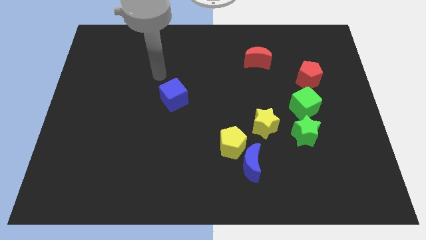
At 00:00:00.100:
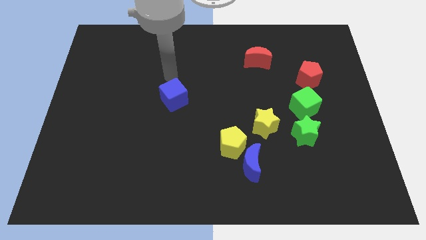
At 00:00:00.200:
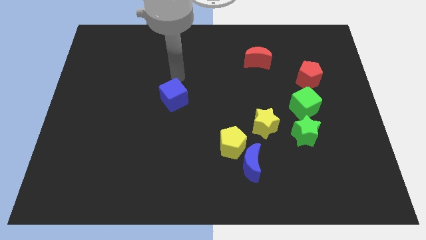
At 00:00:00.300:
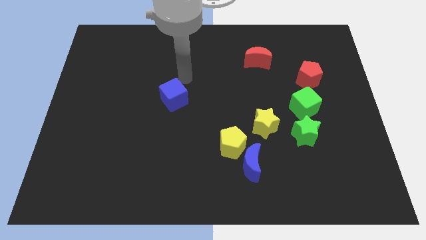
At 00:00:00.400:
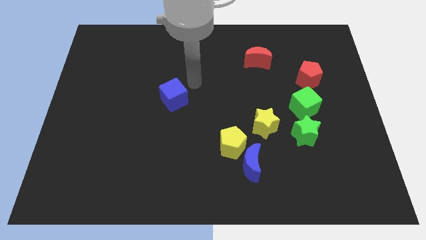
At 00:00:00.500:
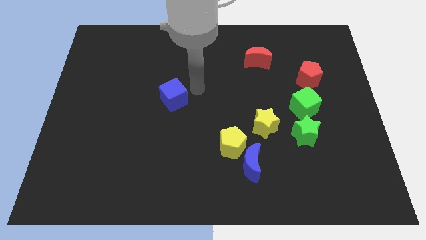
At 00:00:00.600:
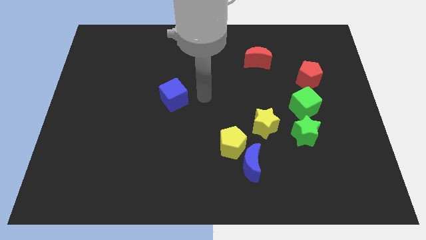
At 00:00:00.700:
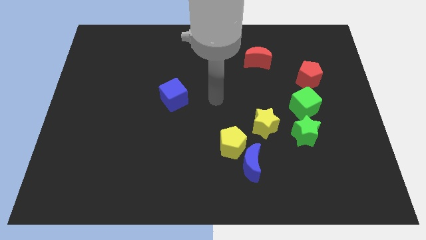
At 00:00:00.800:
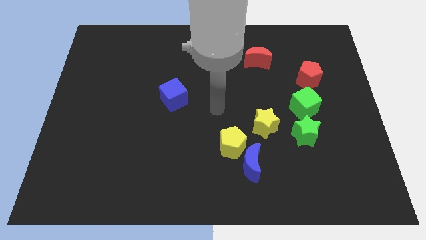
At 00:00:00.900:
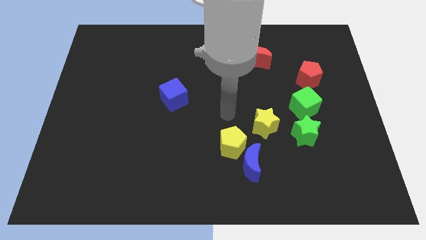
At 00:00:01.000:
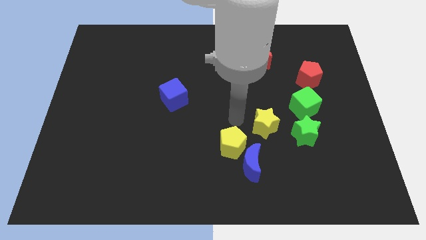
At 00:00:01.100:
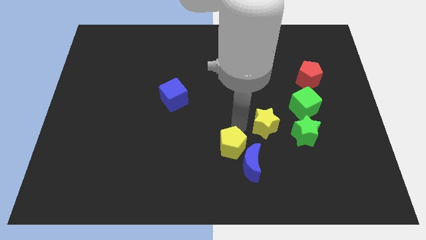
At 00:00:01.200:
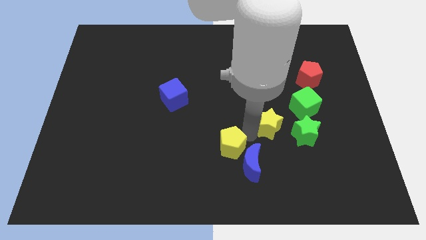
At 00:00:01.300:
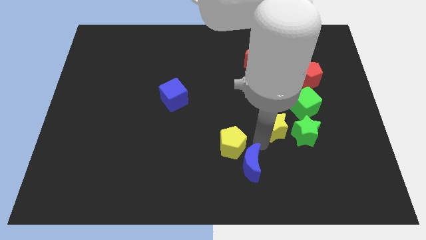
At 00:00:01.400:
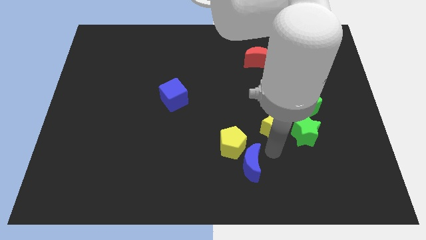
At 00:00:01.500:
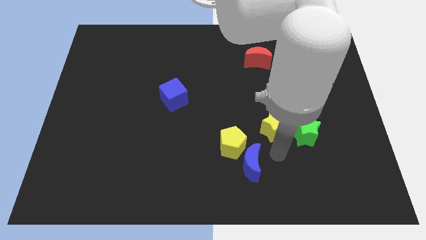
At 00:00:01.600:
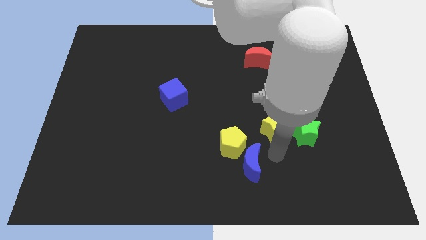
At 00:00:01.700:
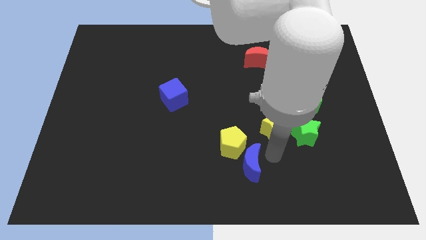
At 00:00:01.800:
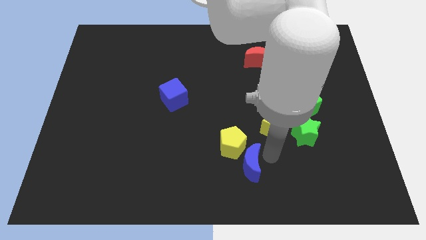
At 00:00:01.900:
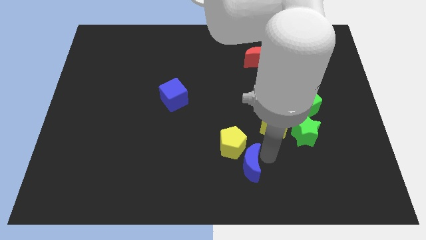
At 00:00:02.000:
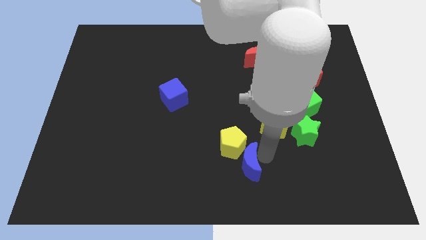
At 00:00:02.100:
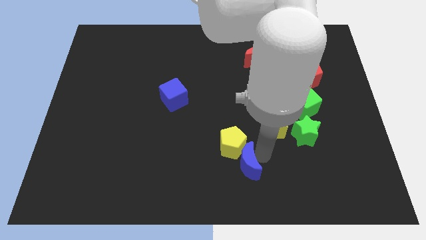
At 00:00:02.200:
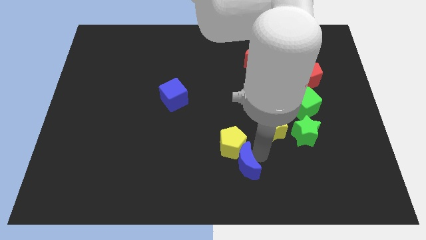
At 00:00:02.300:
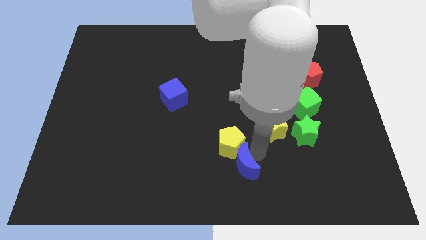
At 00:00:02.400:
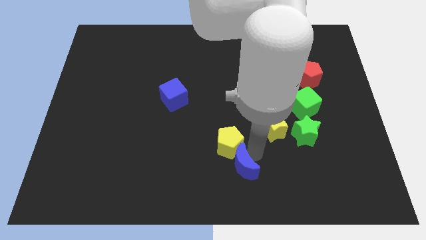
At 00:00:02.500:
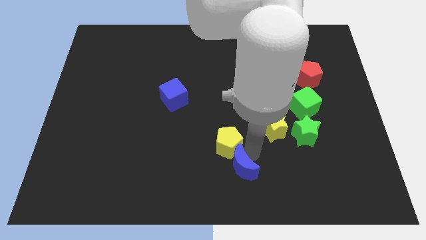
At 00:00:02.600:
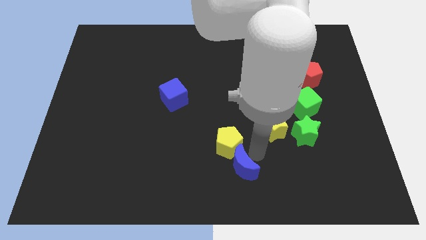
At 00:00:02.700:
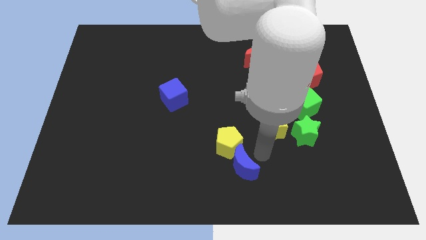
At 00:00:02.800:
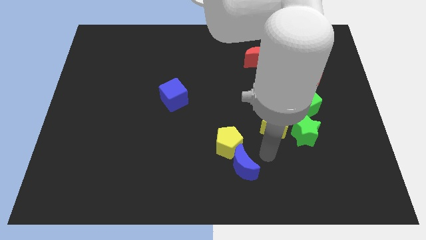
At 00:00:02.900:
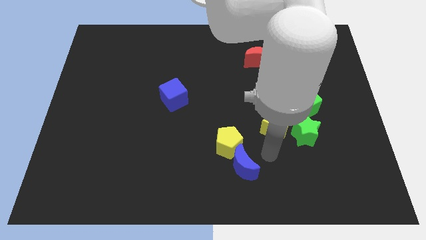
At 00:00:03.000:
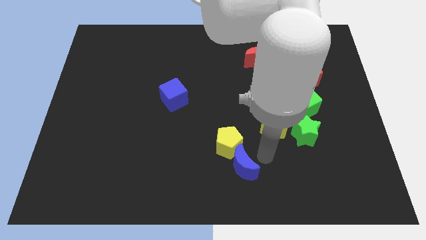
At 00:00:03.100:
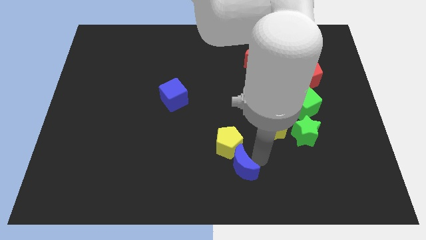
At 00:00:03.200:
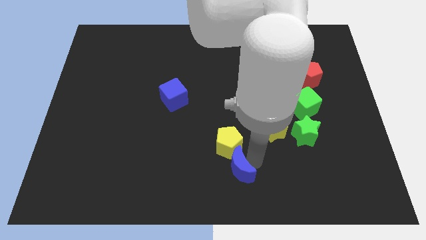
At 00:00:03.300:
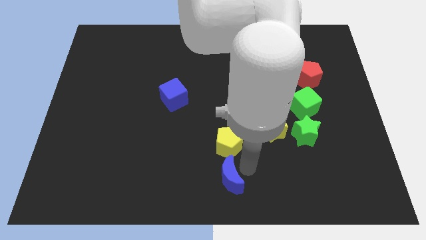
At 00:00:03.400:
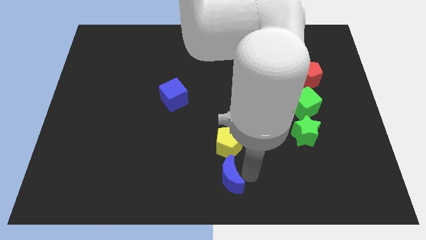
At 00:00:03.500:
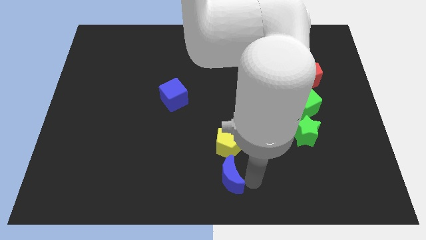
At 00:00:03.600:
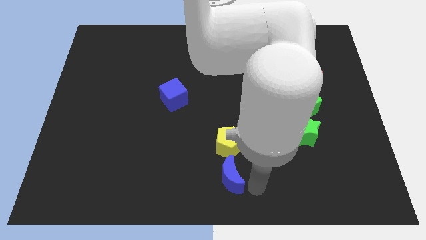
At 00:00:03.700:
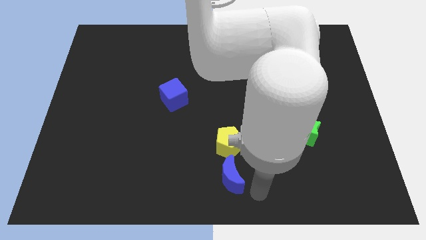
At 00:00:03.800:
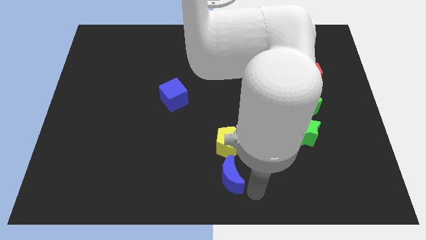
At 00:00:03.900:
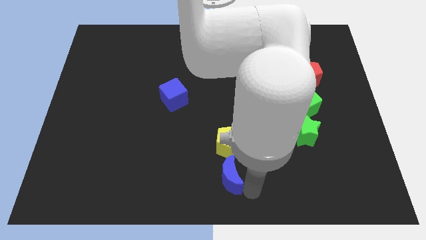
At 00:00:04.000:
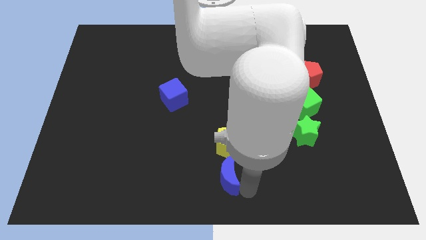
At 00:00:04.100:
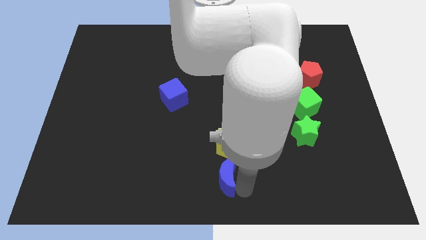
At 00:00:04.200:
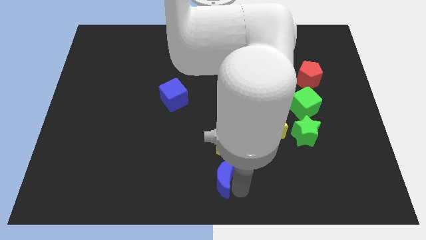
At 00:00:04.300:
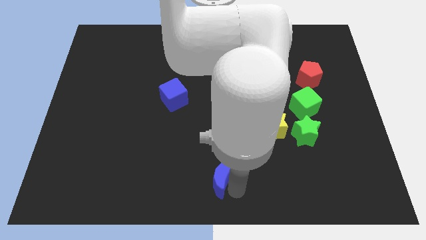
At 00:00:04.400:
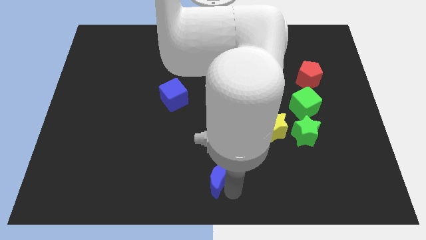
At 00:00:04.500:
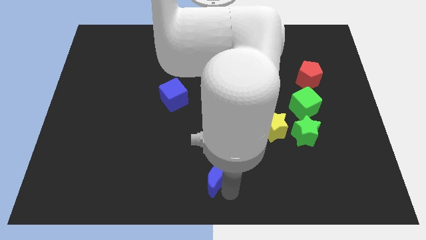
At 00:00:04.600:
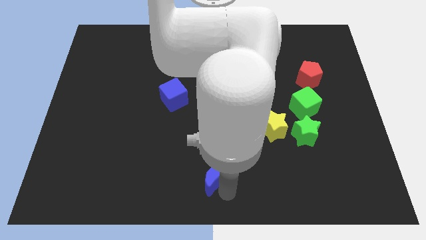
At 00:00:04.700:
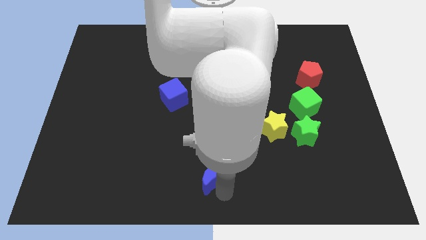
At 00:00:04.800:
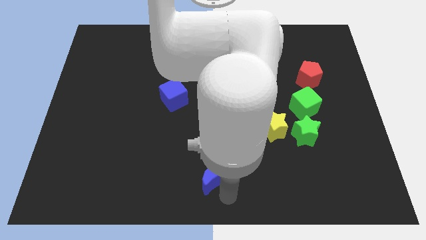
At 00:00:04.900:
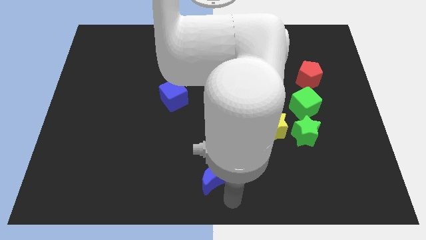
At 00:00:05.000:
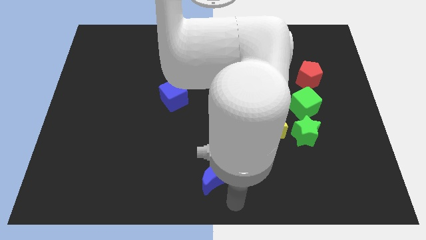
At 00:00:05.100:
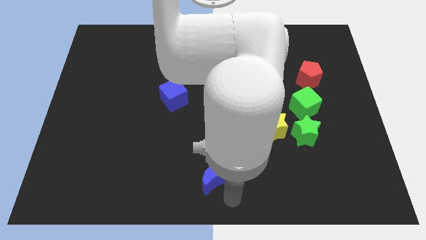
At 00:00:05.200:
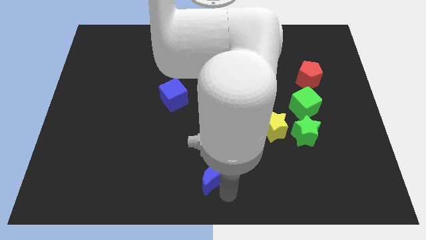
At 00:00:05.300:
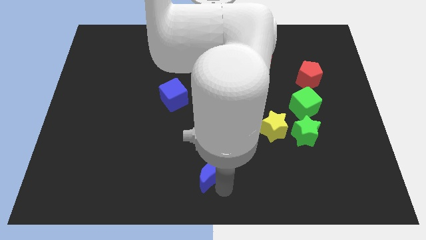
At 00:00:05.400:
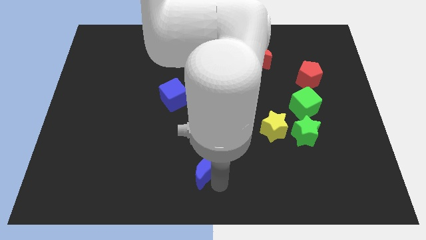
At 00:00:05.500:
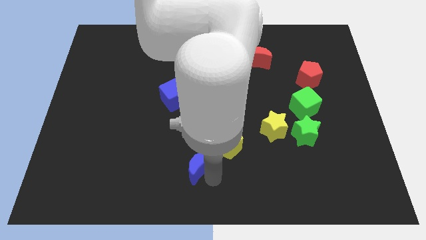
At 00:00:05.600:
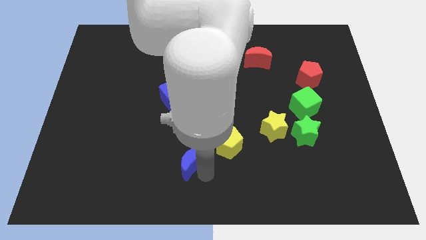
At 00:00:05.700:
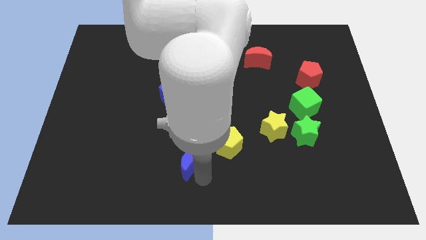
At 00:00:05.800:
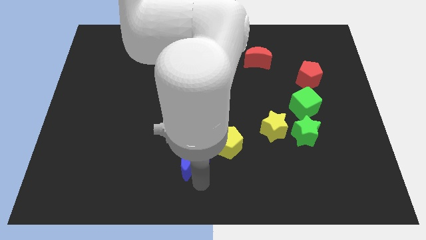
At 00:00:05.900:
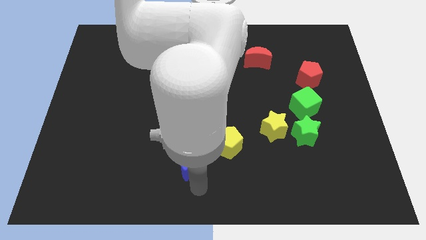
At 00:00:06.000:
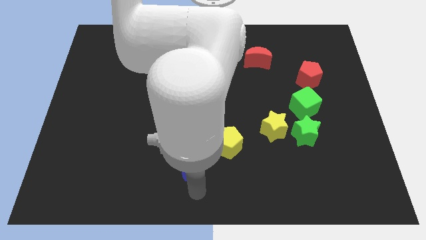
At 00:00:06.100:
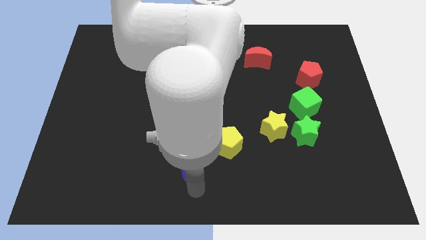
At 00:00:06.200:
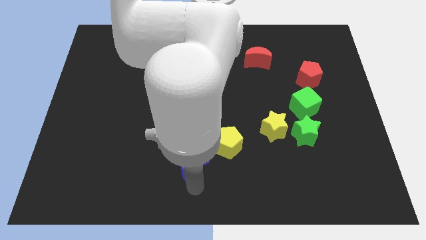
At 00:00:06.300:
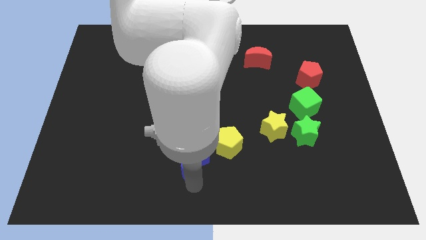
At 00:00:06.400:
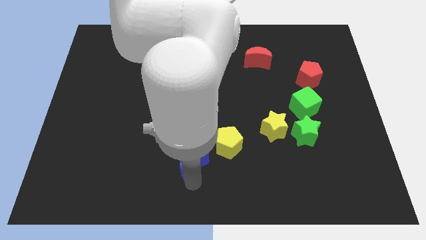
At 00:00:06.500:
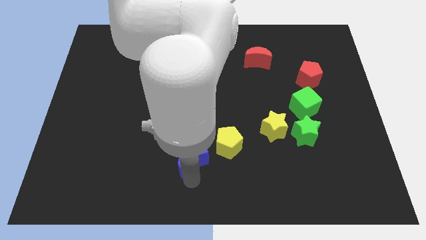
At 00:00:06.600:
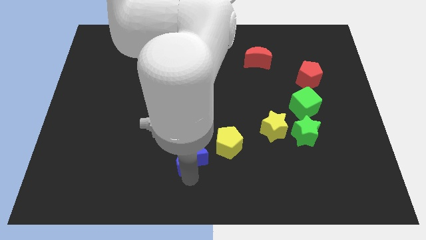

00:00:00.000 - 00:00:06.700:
move the blue moon slightly up and then left

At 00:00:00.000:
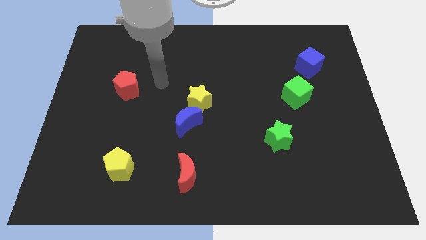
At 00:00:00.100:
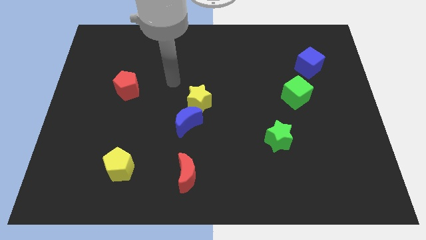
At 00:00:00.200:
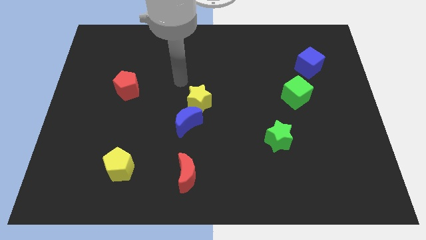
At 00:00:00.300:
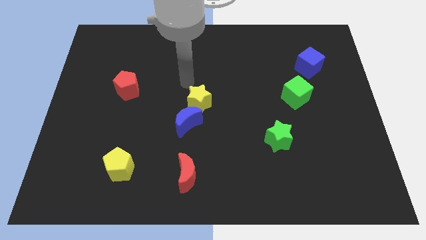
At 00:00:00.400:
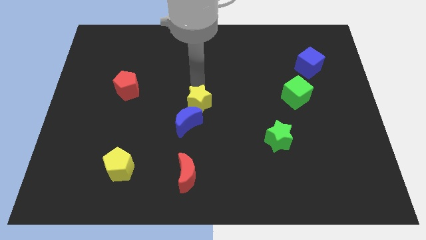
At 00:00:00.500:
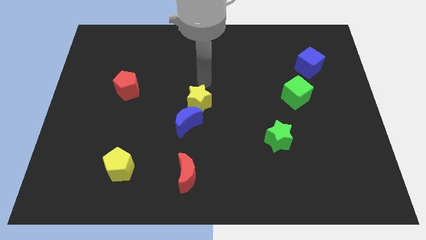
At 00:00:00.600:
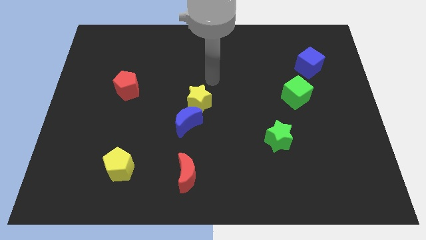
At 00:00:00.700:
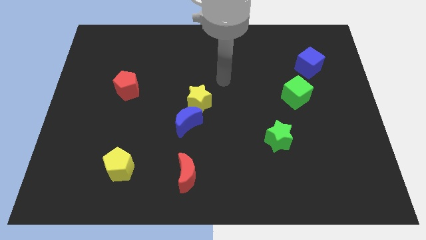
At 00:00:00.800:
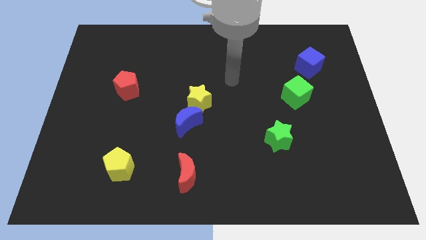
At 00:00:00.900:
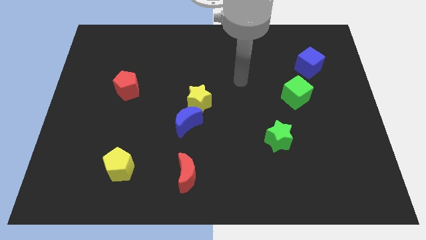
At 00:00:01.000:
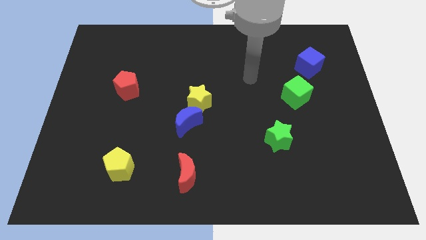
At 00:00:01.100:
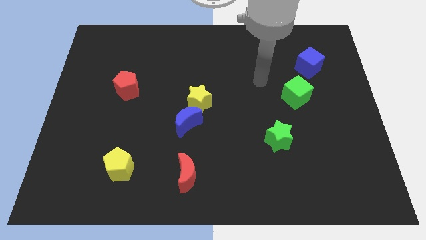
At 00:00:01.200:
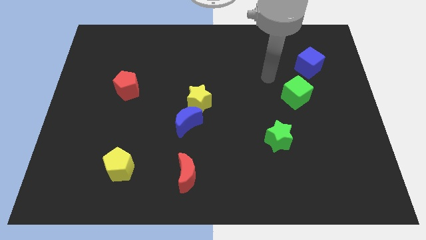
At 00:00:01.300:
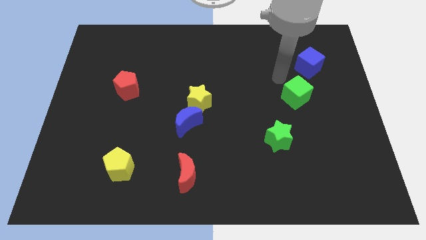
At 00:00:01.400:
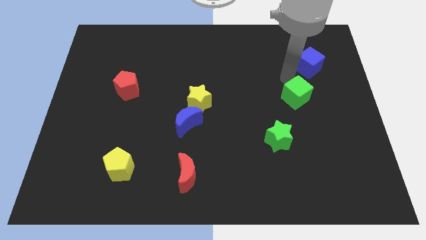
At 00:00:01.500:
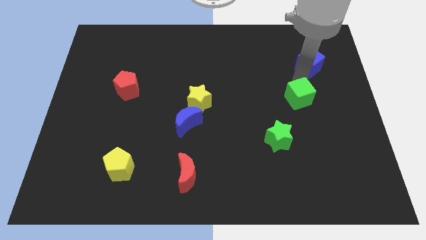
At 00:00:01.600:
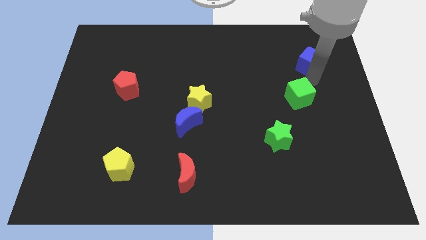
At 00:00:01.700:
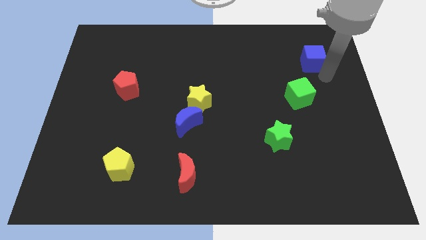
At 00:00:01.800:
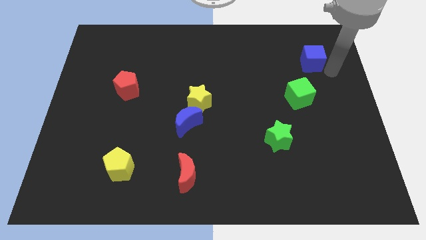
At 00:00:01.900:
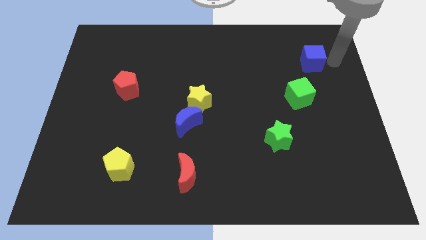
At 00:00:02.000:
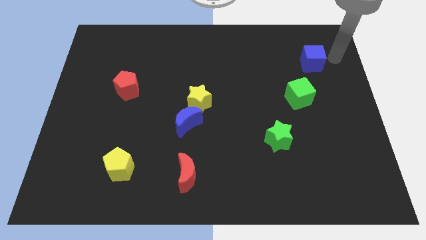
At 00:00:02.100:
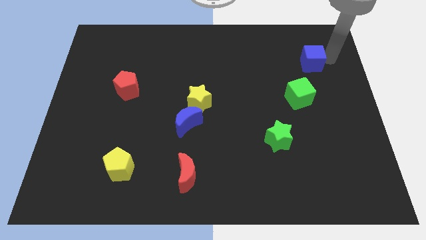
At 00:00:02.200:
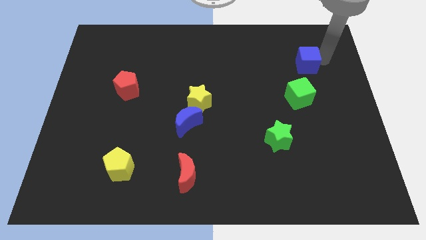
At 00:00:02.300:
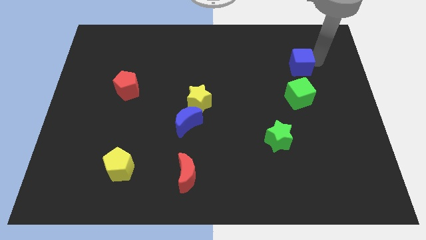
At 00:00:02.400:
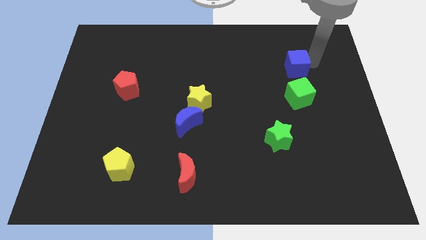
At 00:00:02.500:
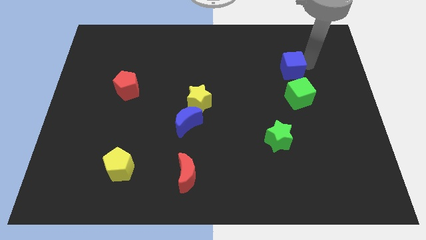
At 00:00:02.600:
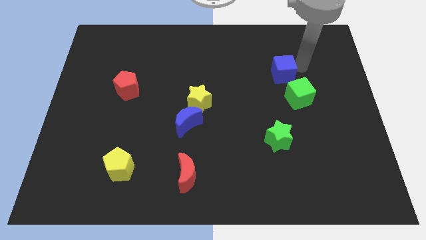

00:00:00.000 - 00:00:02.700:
slide the blue cube left a little bit
